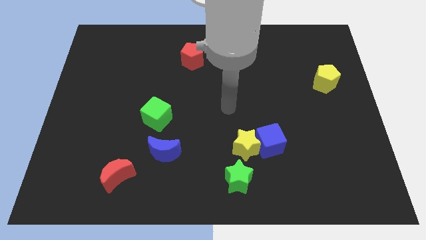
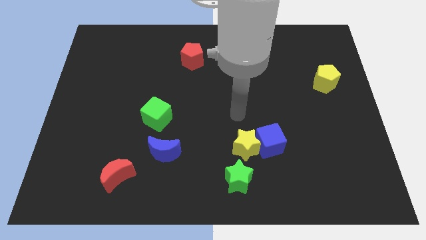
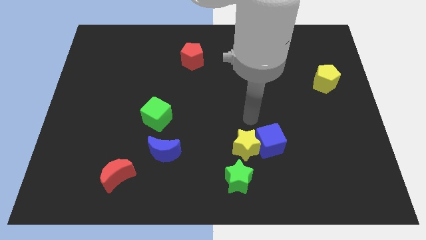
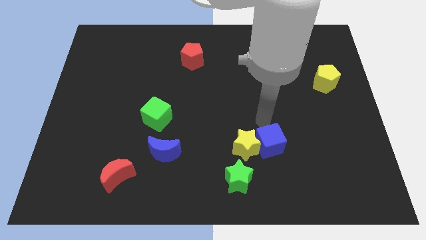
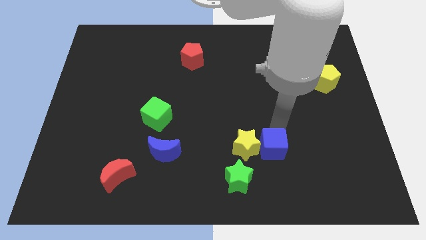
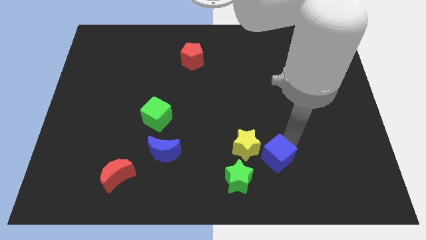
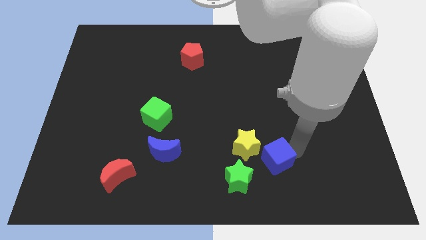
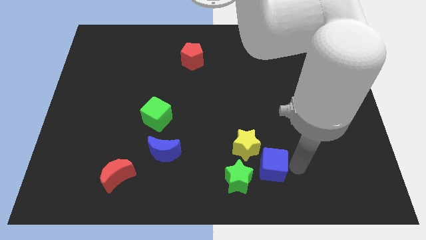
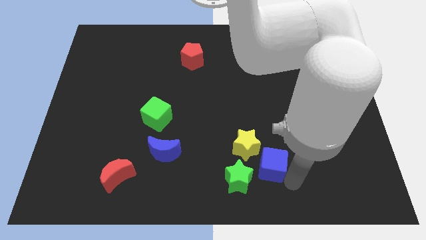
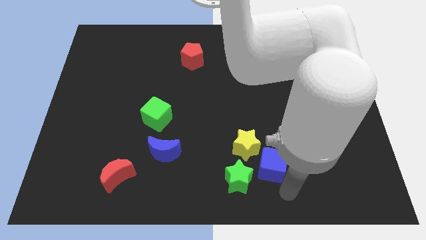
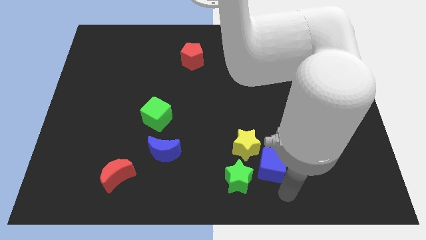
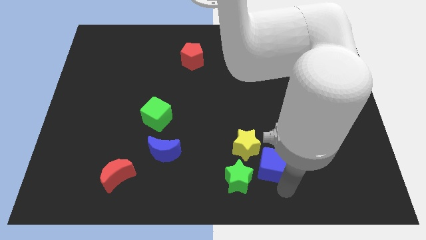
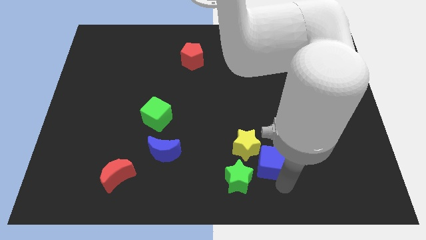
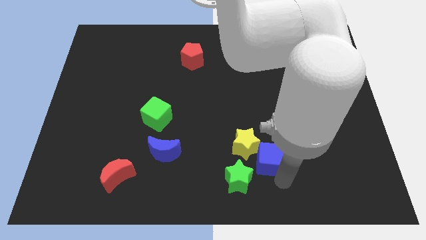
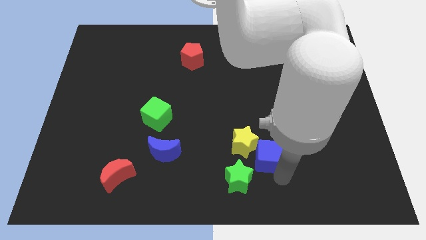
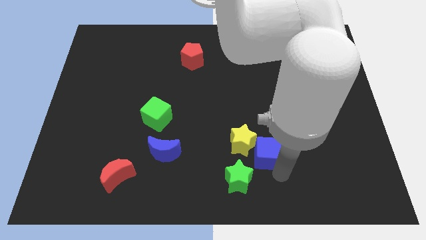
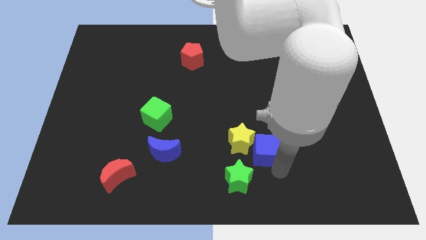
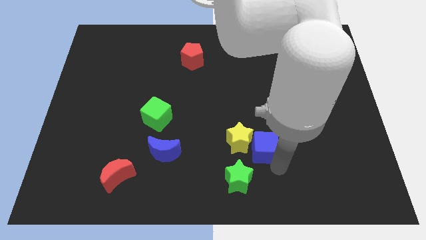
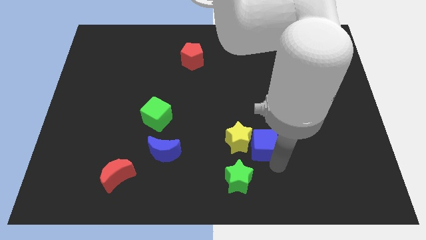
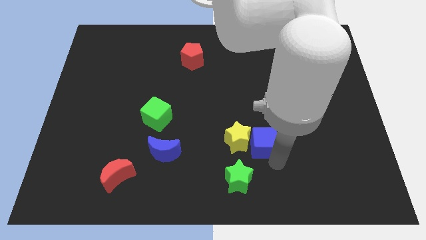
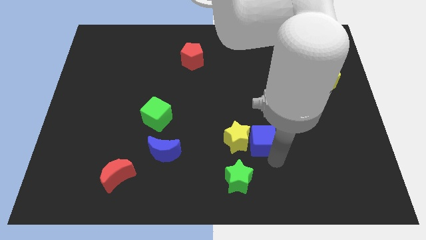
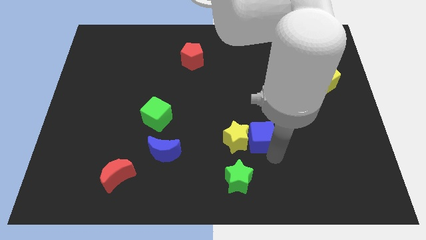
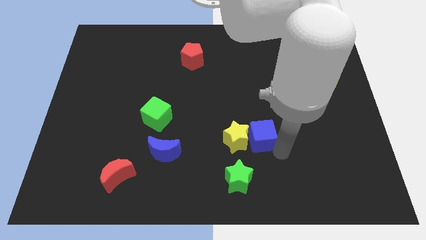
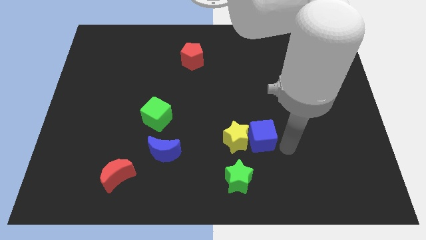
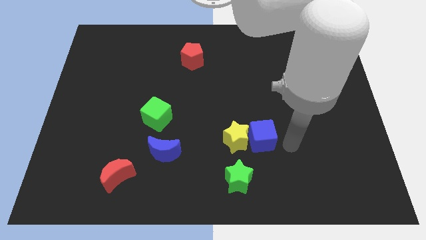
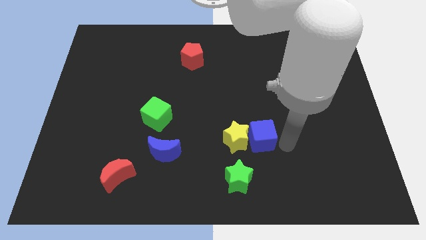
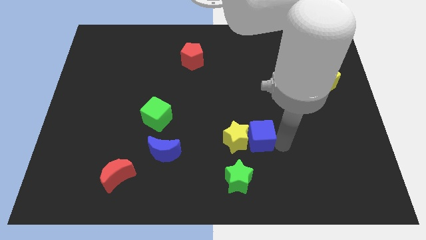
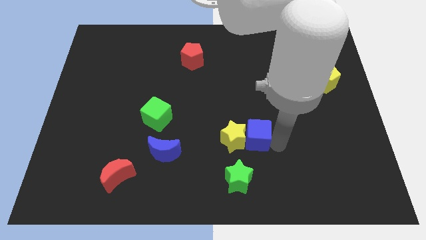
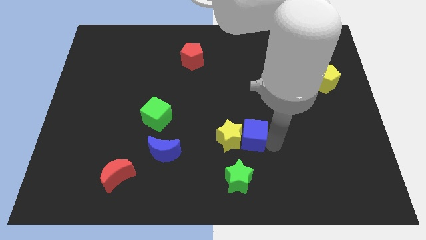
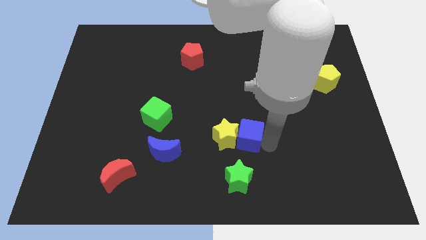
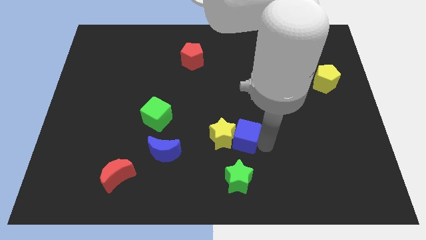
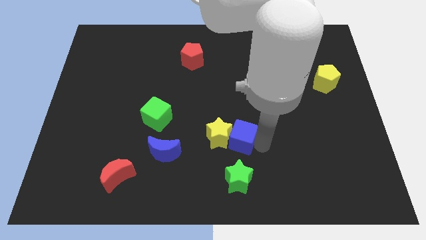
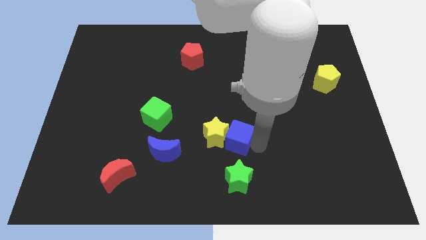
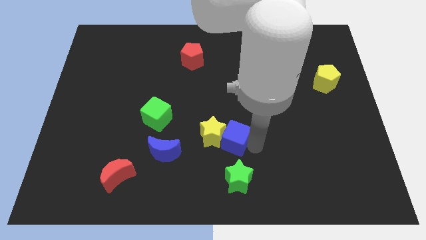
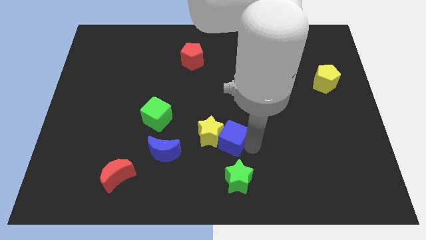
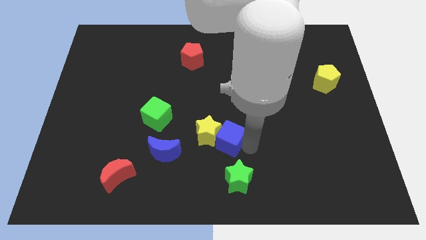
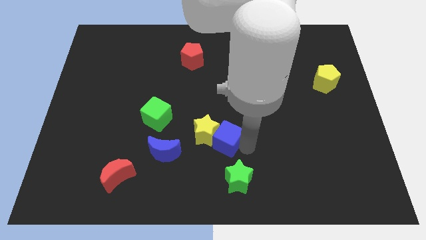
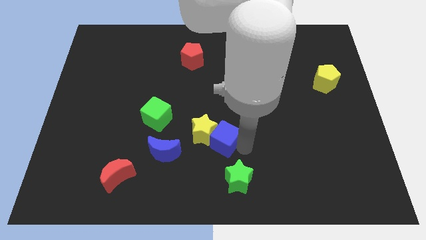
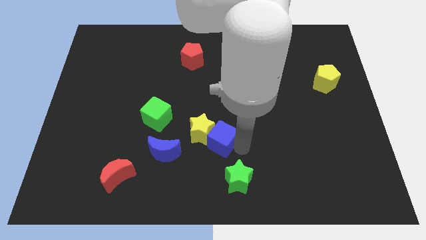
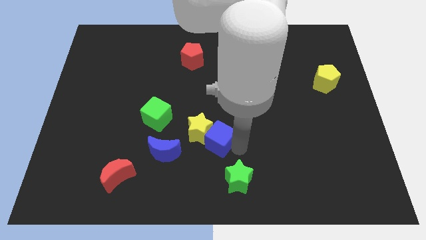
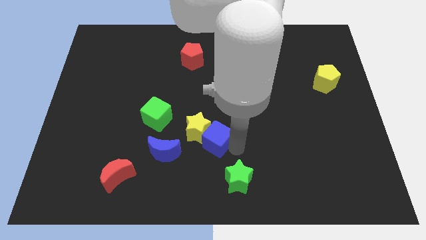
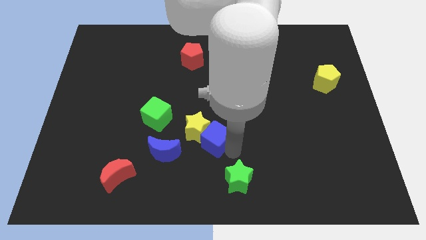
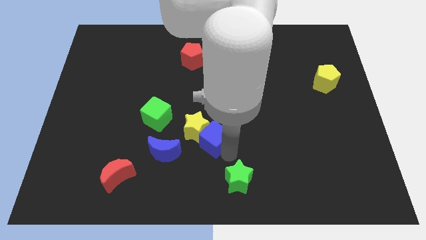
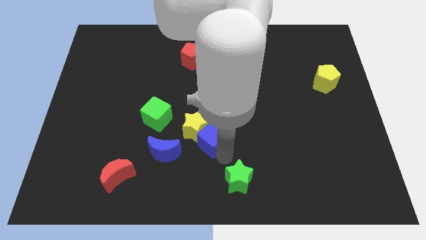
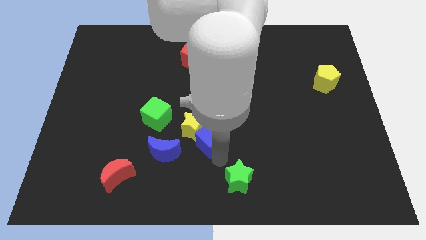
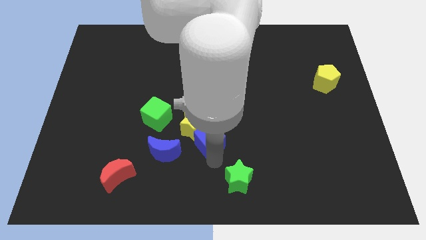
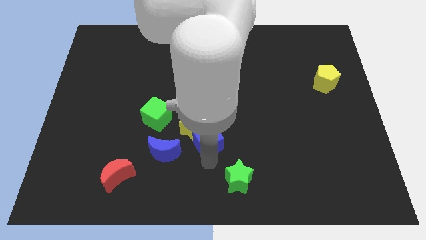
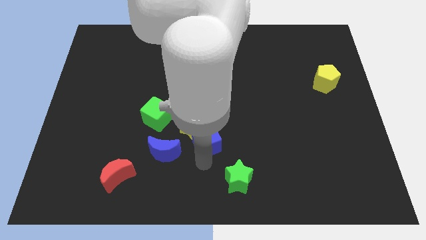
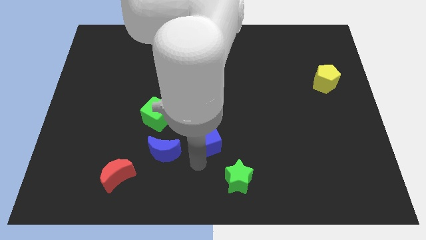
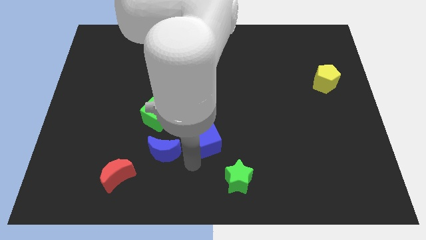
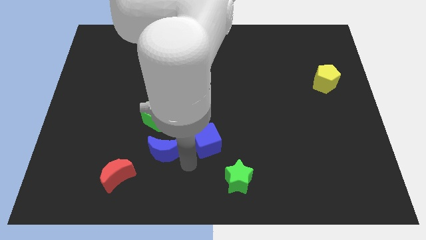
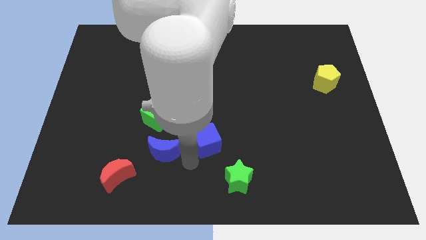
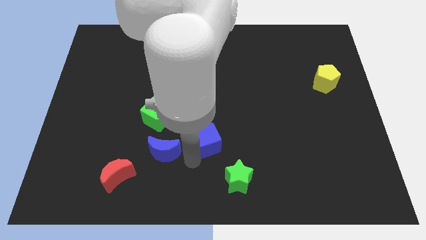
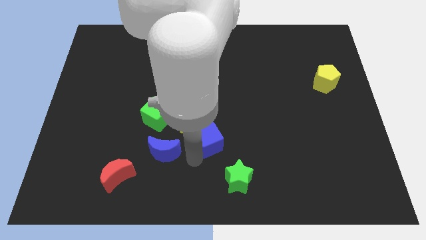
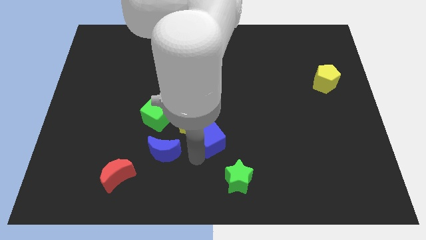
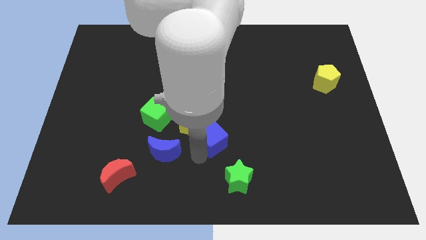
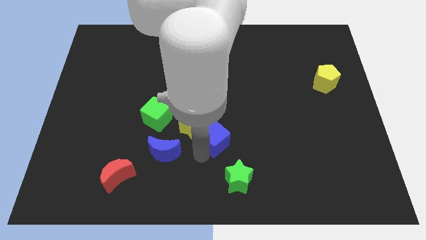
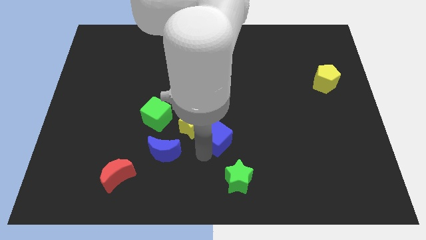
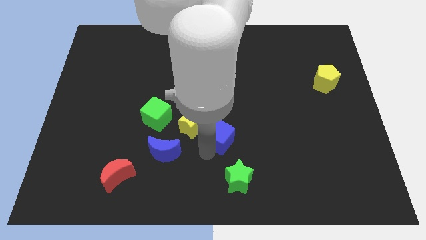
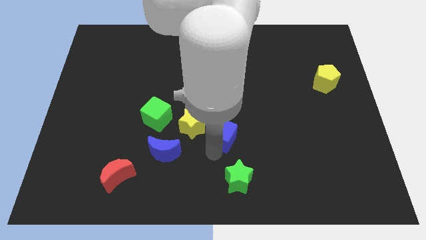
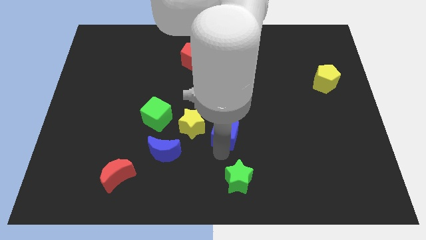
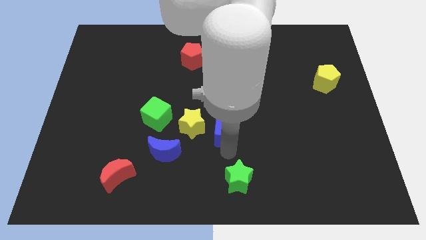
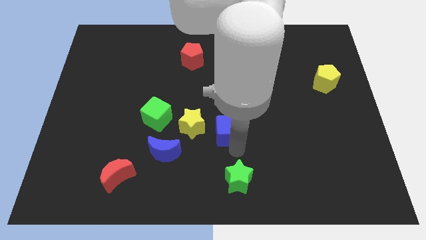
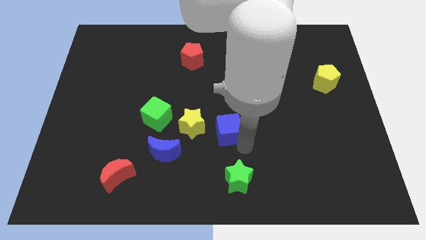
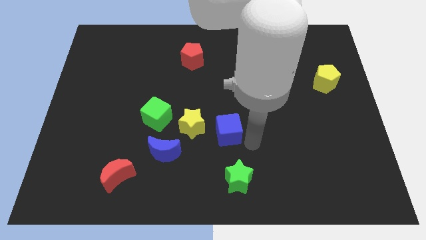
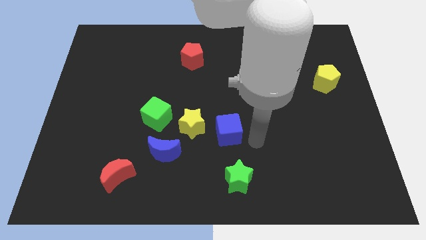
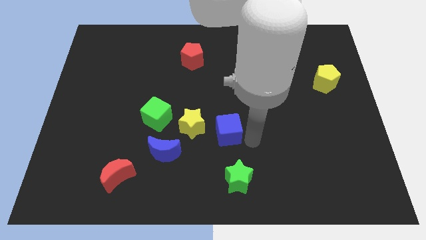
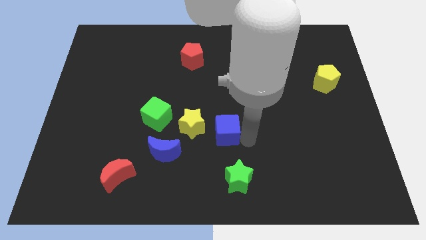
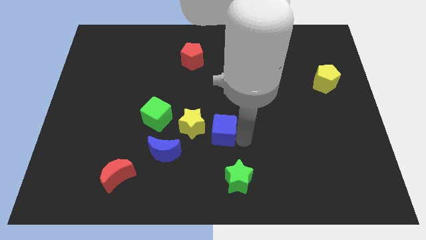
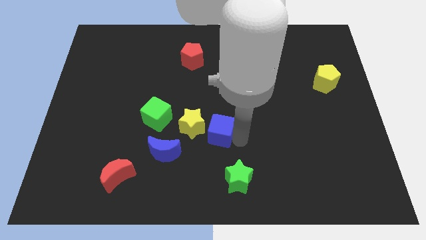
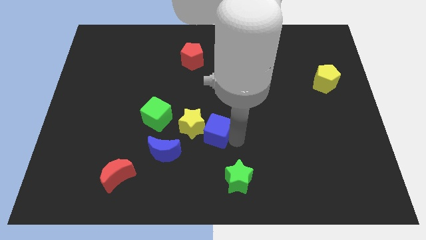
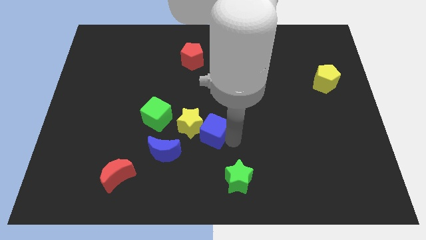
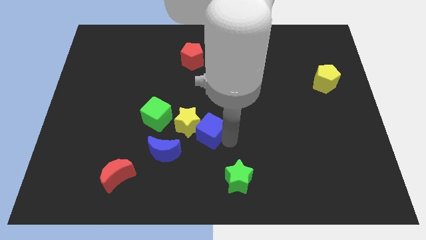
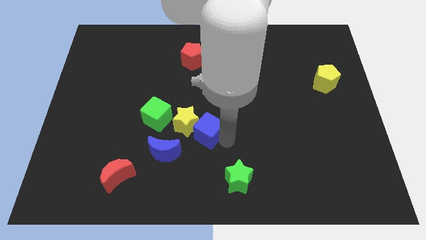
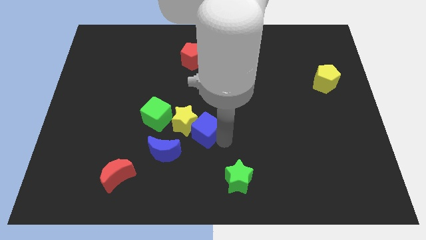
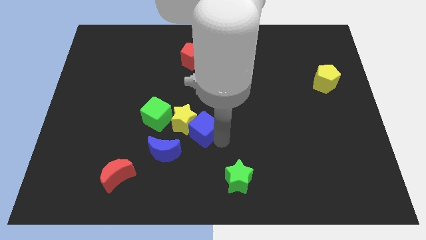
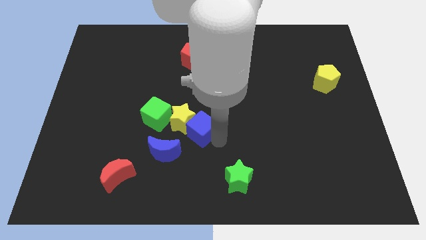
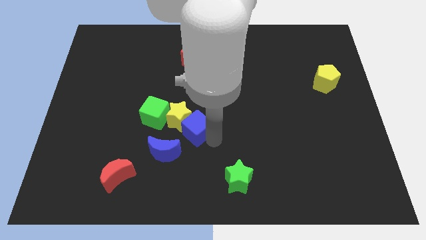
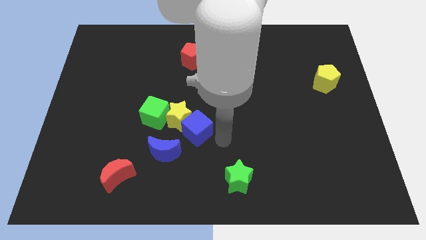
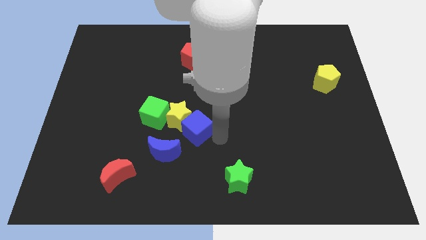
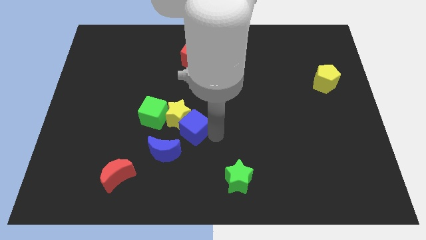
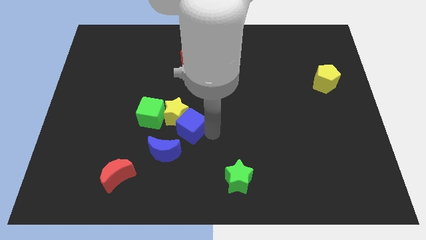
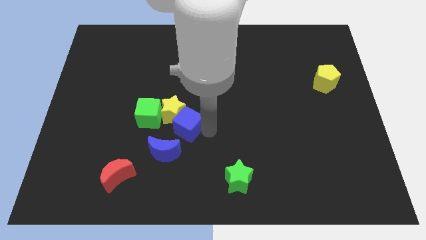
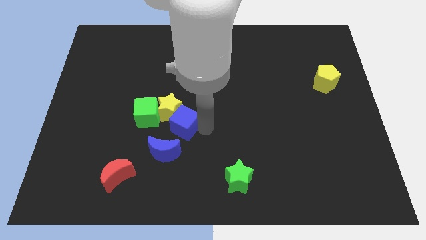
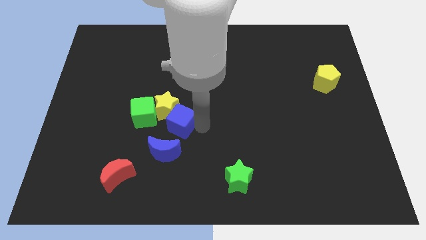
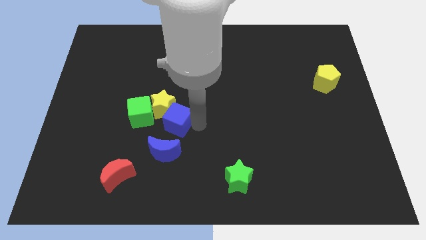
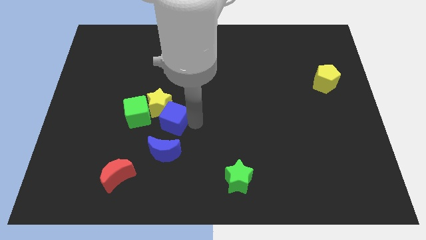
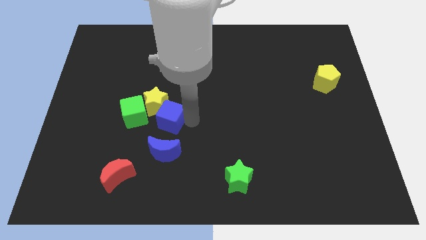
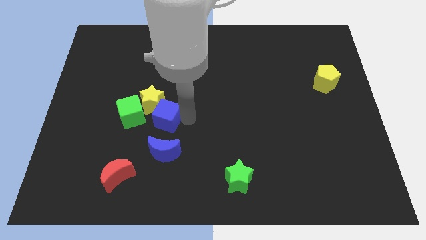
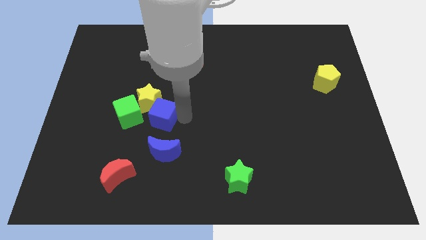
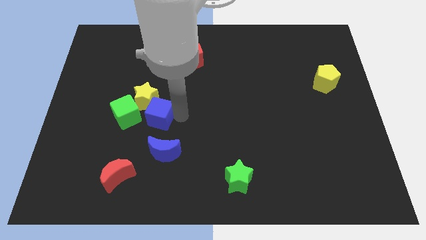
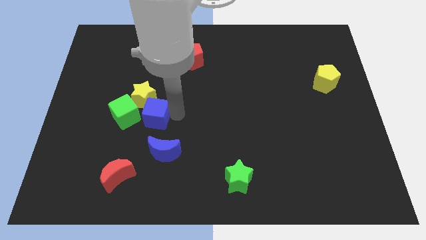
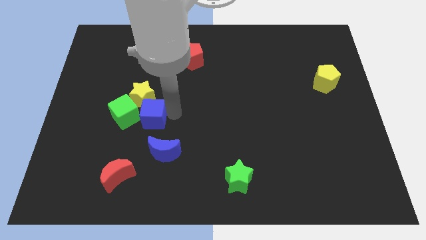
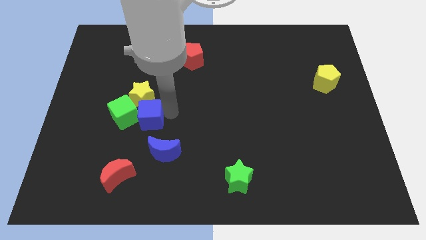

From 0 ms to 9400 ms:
slide the blue cube to the green cube
